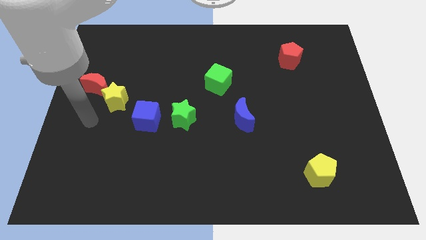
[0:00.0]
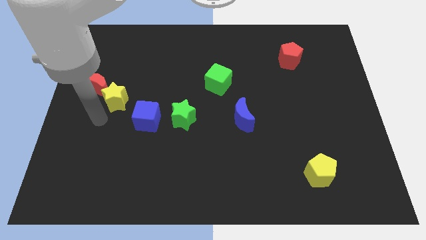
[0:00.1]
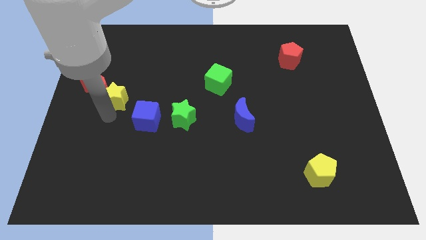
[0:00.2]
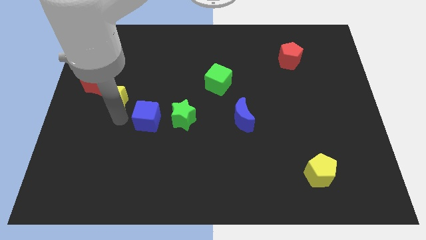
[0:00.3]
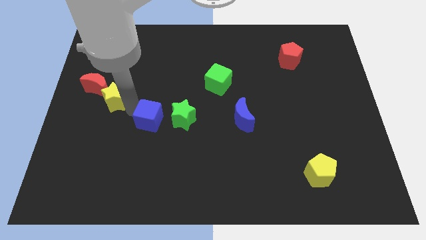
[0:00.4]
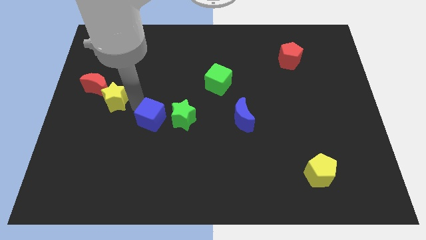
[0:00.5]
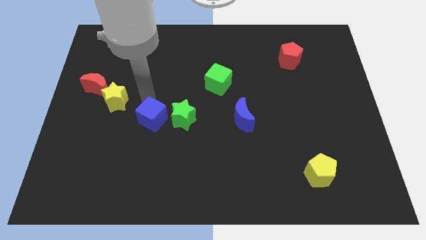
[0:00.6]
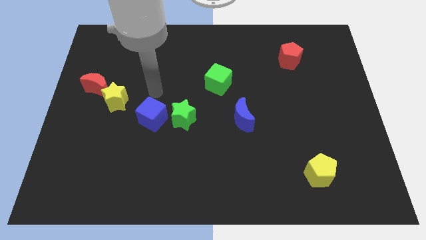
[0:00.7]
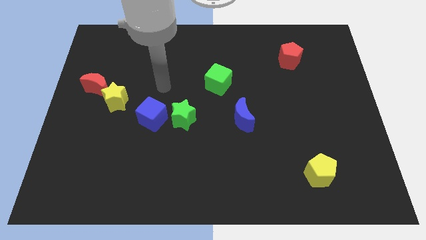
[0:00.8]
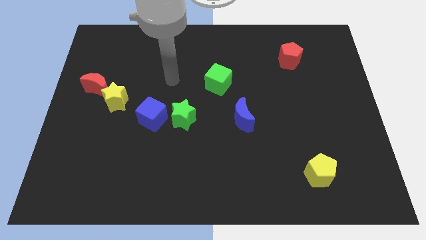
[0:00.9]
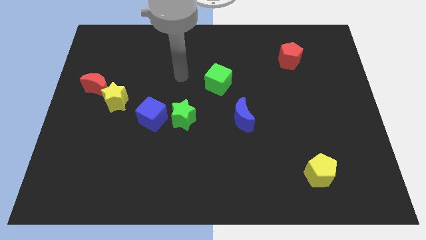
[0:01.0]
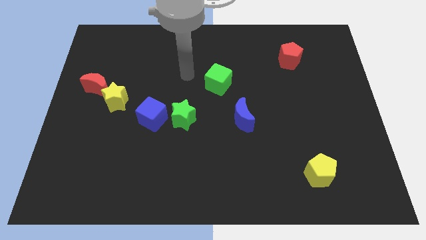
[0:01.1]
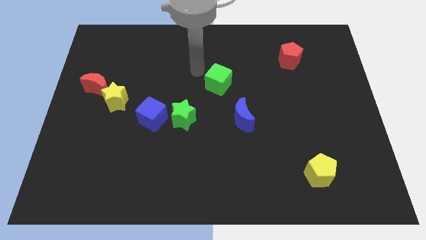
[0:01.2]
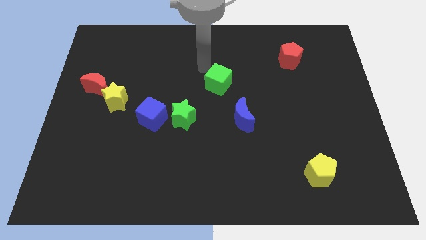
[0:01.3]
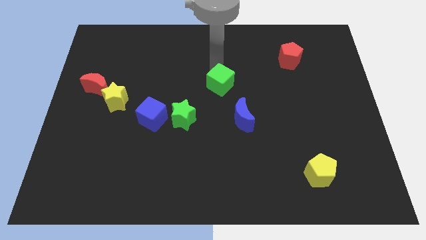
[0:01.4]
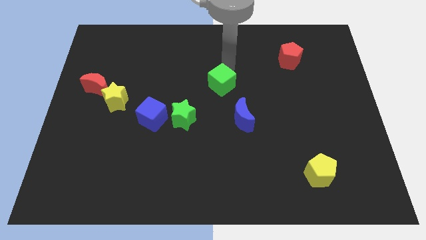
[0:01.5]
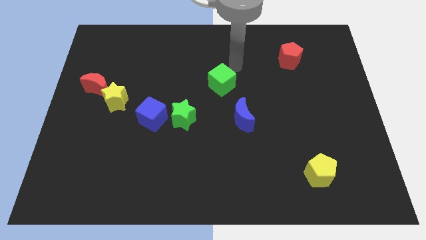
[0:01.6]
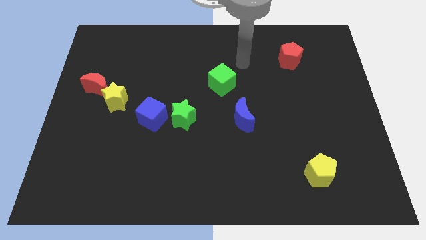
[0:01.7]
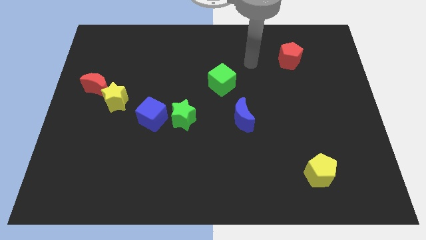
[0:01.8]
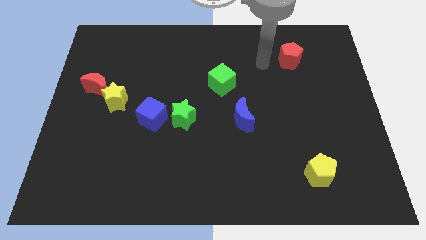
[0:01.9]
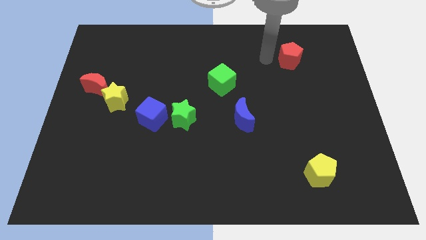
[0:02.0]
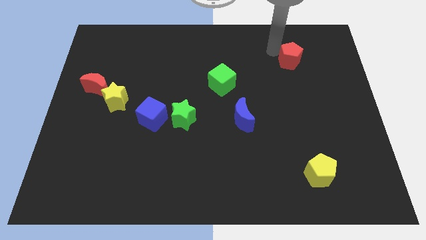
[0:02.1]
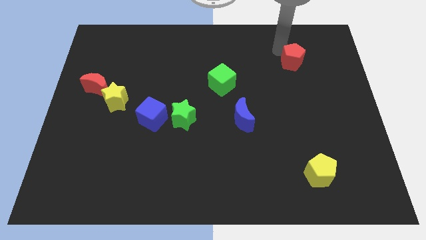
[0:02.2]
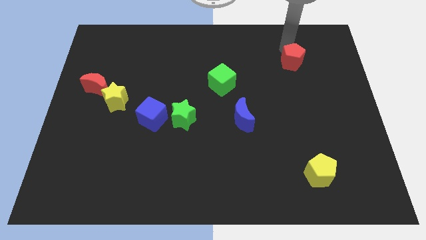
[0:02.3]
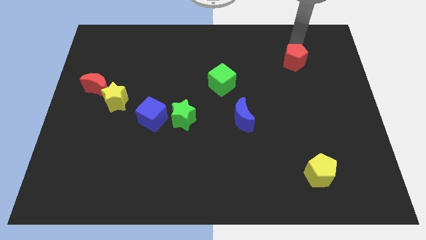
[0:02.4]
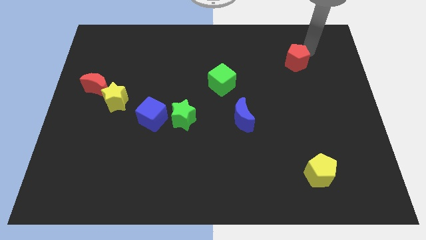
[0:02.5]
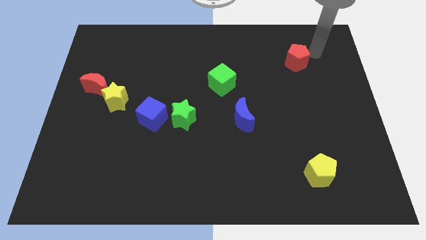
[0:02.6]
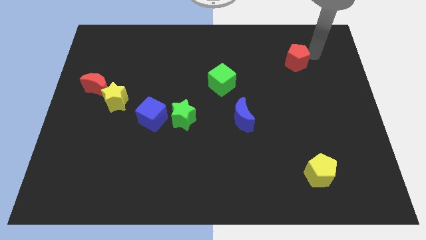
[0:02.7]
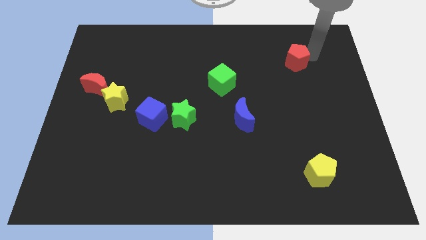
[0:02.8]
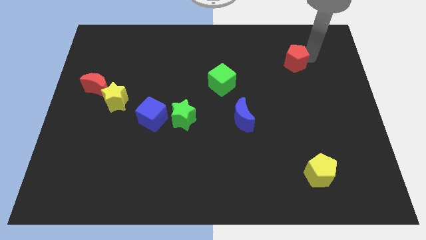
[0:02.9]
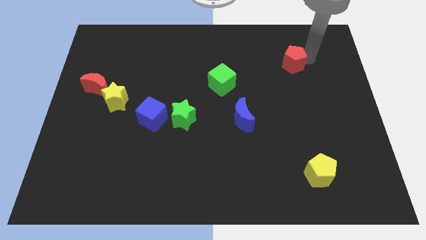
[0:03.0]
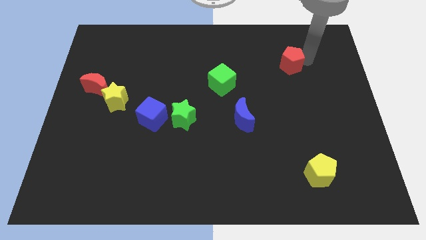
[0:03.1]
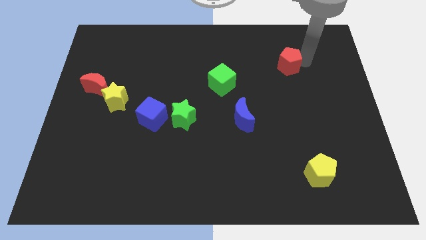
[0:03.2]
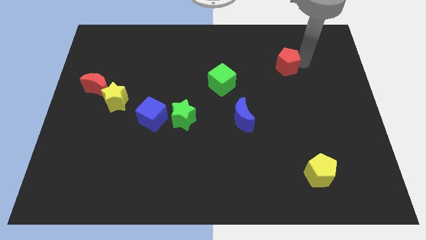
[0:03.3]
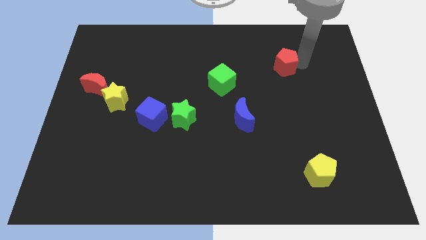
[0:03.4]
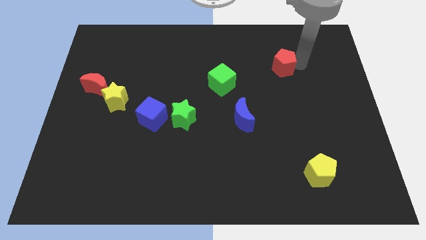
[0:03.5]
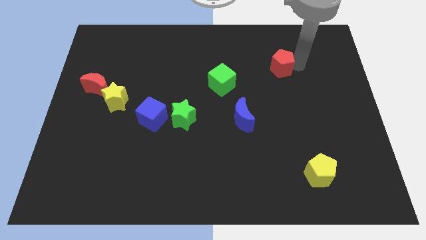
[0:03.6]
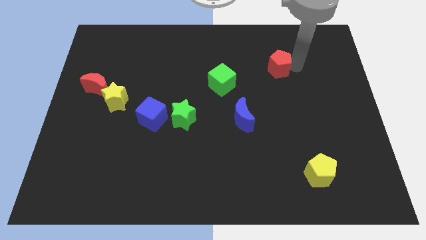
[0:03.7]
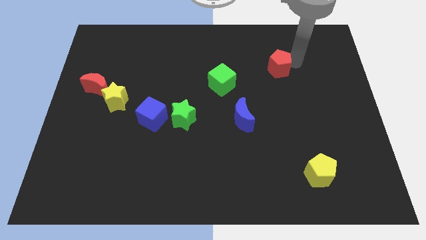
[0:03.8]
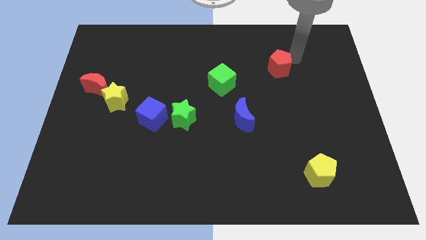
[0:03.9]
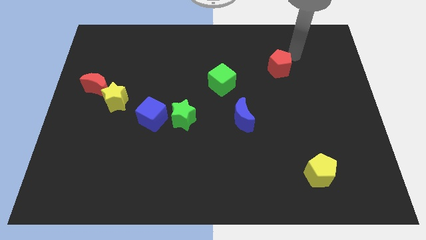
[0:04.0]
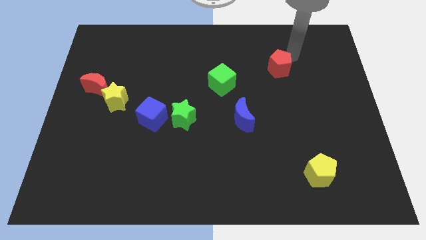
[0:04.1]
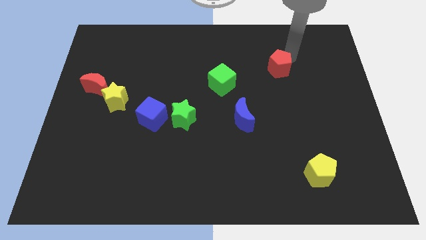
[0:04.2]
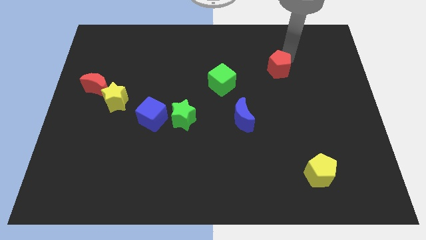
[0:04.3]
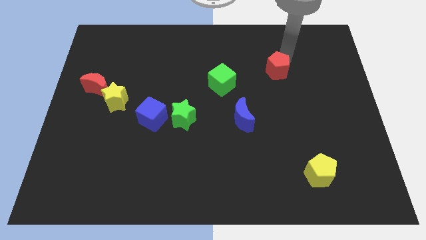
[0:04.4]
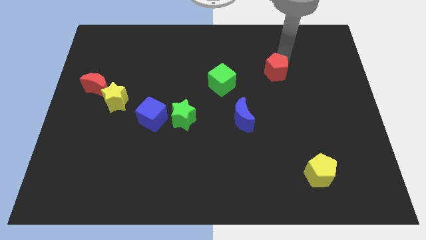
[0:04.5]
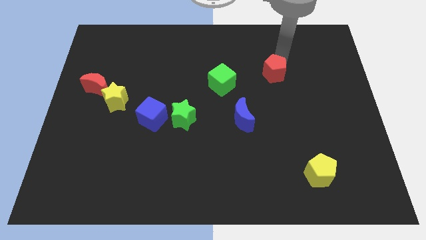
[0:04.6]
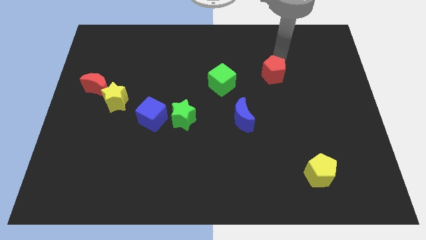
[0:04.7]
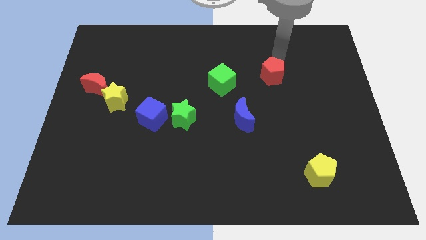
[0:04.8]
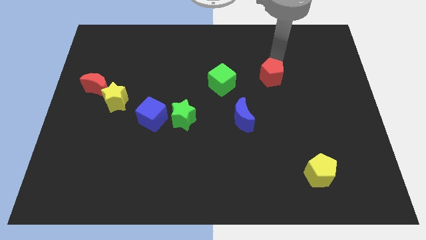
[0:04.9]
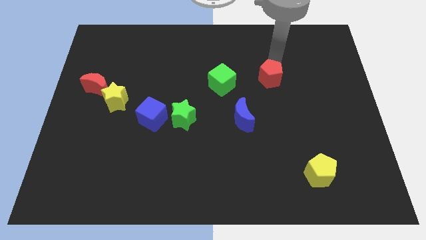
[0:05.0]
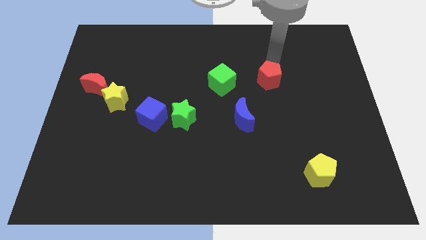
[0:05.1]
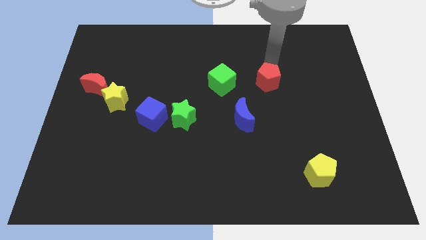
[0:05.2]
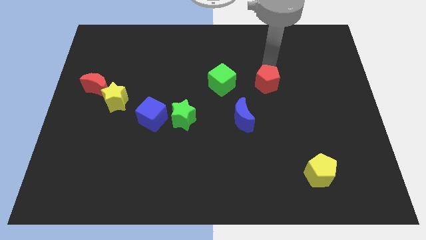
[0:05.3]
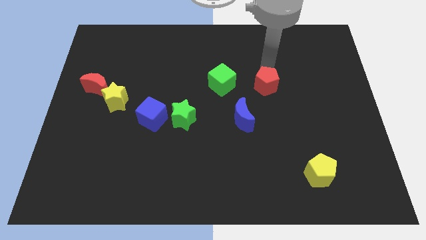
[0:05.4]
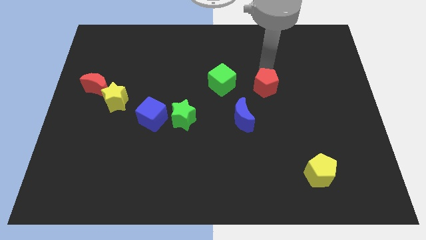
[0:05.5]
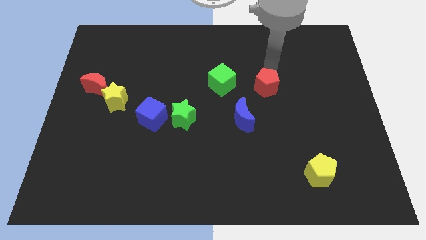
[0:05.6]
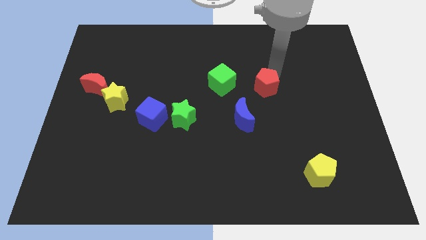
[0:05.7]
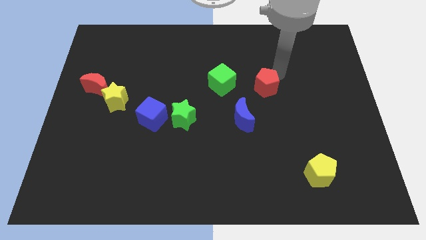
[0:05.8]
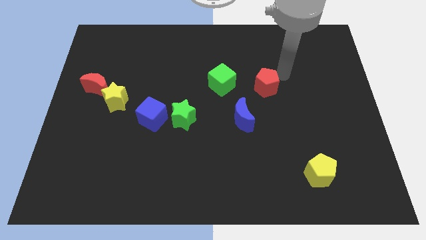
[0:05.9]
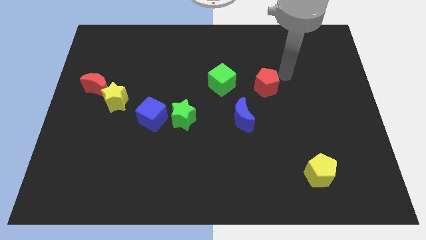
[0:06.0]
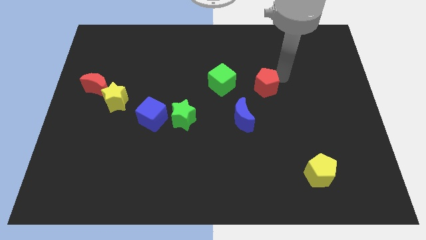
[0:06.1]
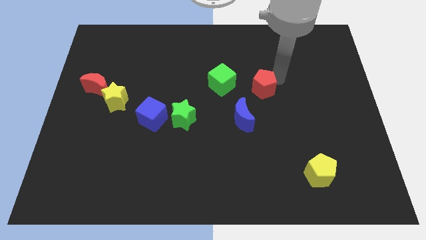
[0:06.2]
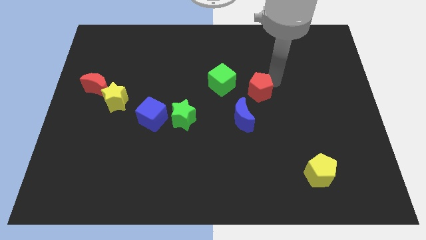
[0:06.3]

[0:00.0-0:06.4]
slide the red pentagon to the bottom right side of the green cube
